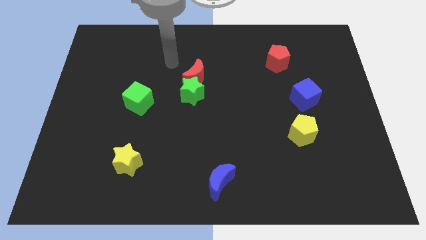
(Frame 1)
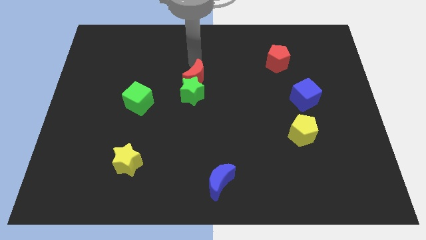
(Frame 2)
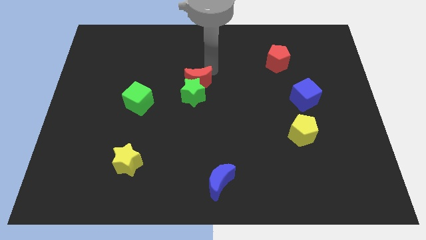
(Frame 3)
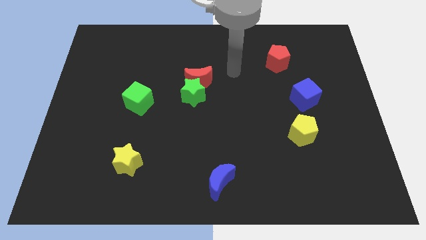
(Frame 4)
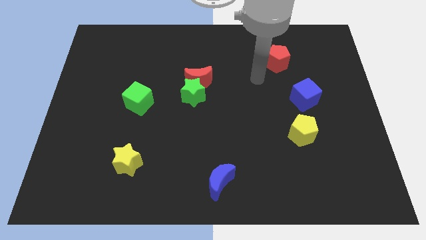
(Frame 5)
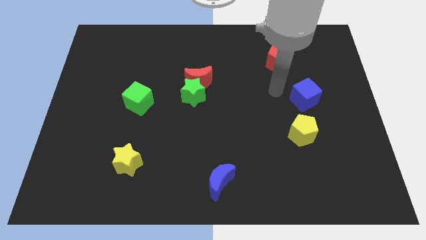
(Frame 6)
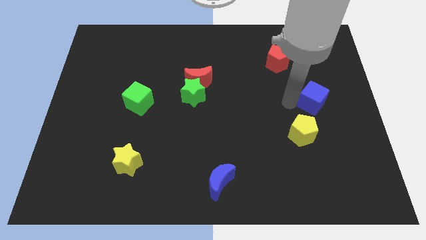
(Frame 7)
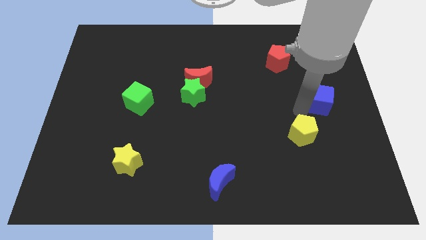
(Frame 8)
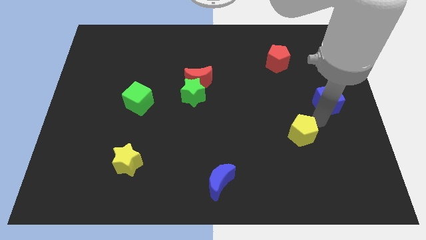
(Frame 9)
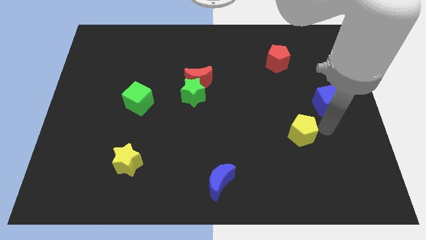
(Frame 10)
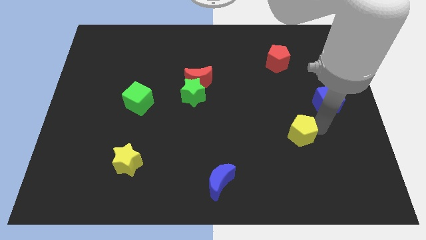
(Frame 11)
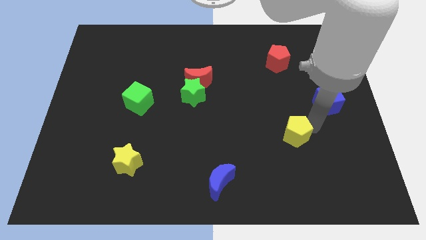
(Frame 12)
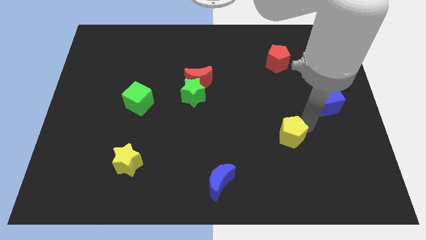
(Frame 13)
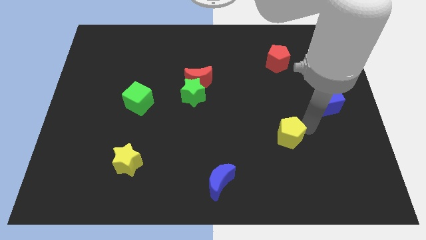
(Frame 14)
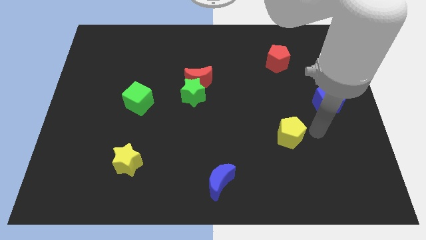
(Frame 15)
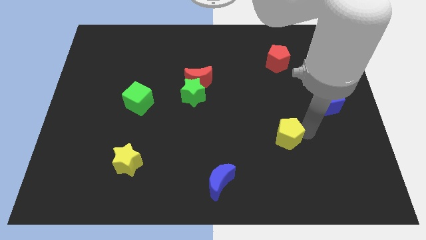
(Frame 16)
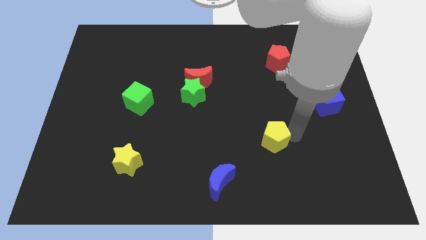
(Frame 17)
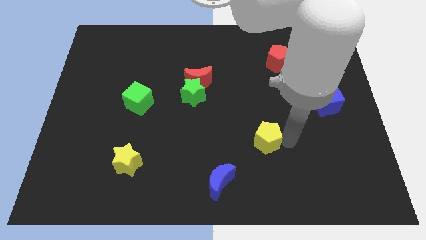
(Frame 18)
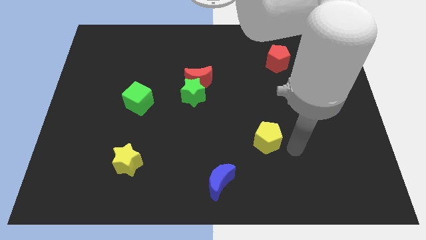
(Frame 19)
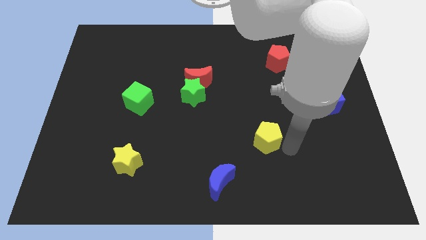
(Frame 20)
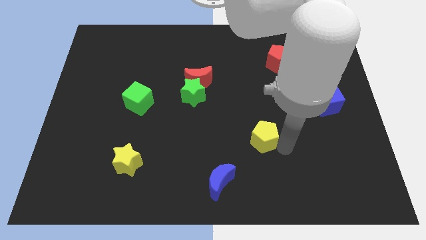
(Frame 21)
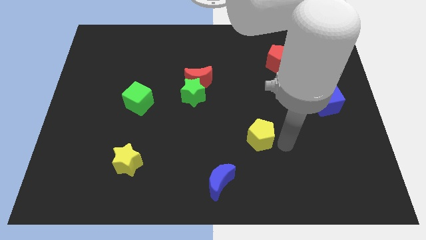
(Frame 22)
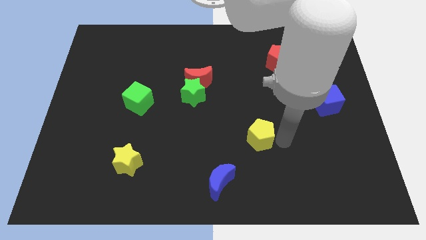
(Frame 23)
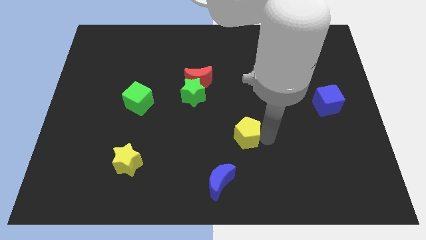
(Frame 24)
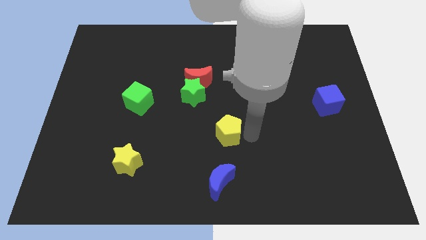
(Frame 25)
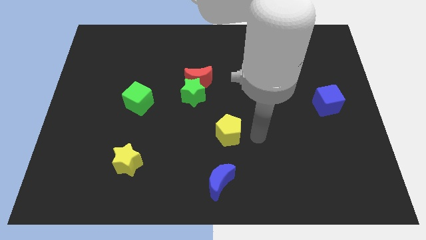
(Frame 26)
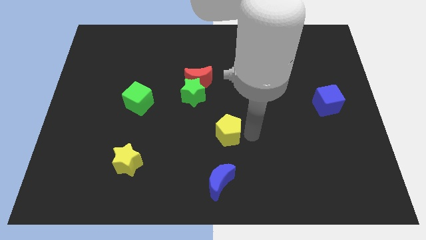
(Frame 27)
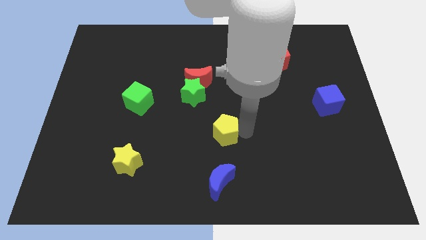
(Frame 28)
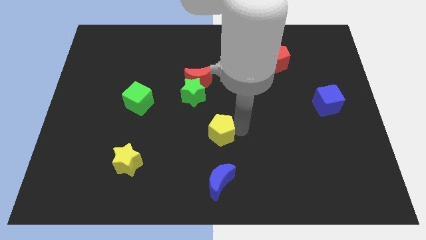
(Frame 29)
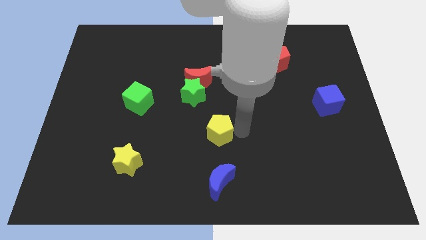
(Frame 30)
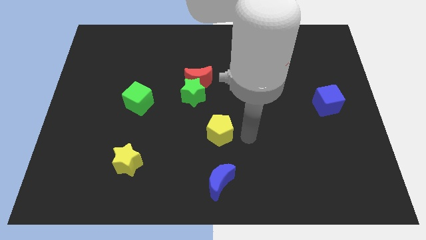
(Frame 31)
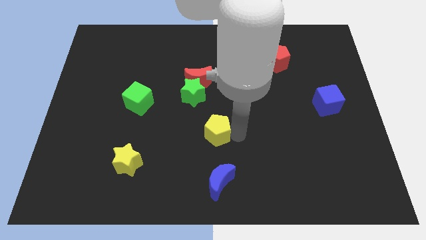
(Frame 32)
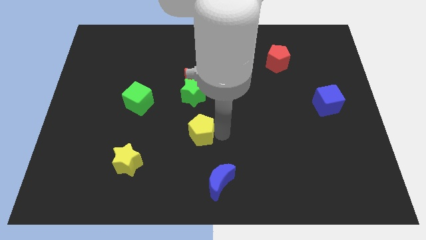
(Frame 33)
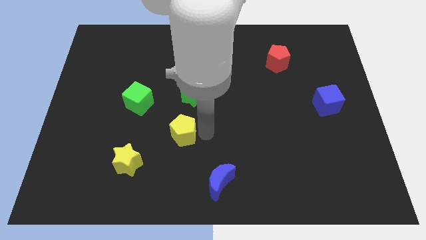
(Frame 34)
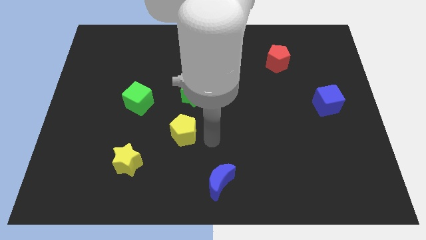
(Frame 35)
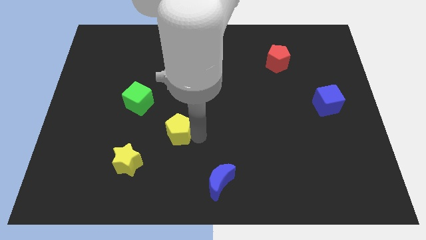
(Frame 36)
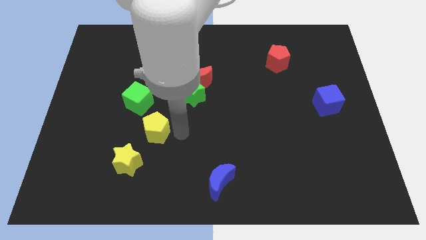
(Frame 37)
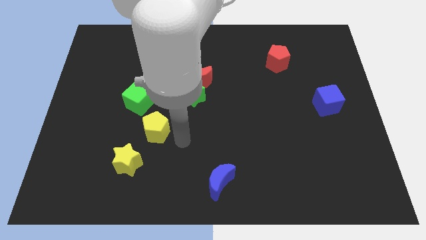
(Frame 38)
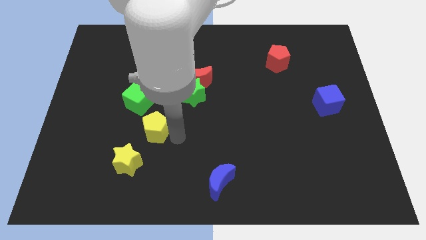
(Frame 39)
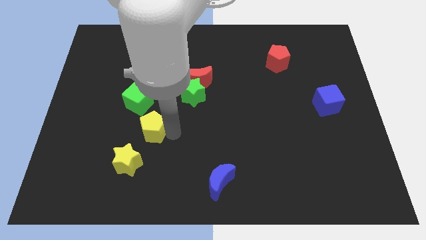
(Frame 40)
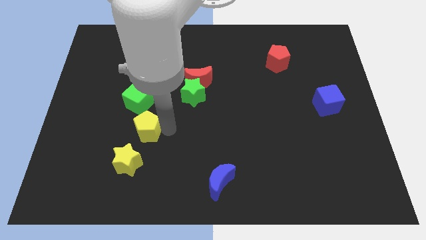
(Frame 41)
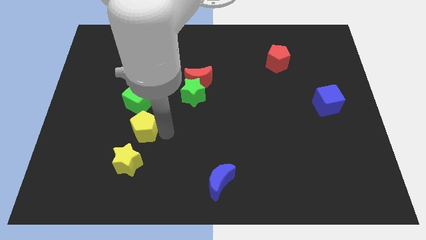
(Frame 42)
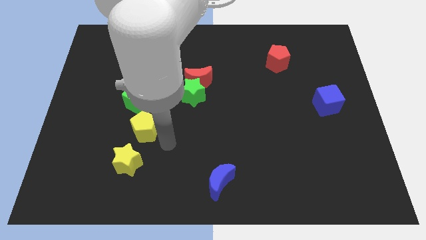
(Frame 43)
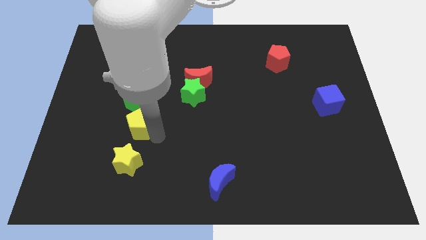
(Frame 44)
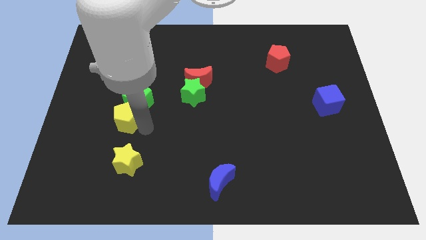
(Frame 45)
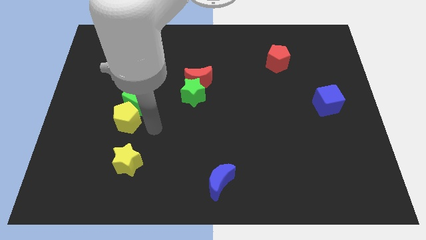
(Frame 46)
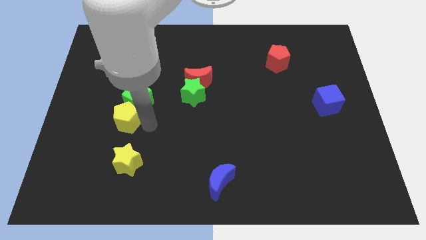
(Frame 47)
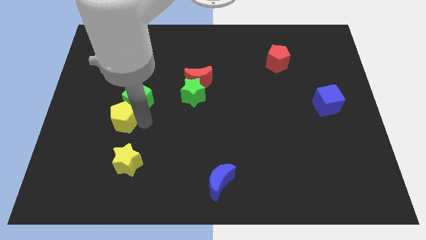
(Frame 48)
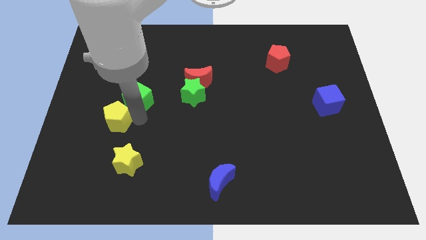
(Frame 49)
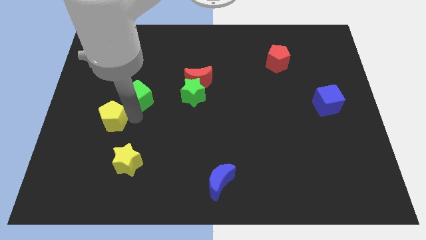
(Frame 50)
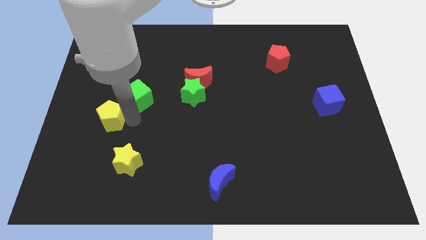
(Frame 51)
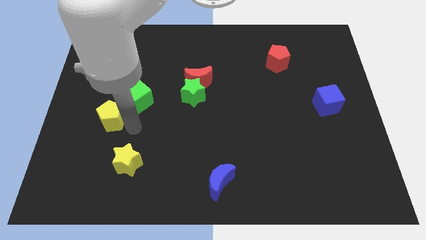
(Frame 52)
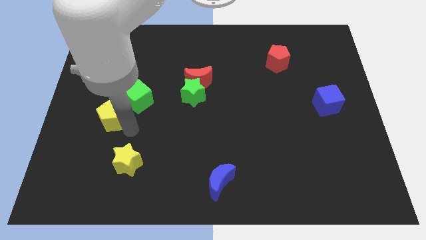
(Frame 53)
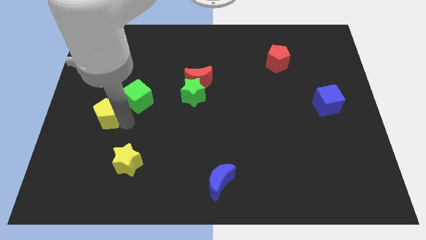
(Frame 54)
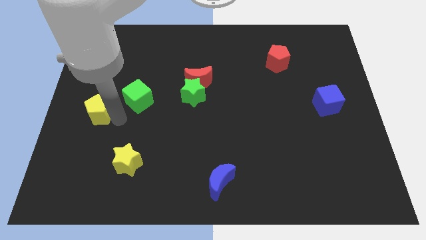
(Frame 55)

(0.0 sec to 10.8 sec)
push the yellow pentagon to the left side of the board

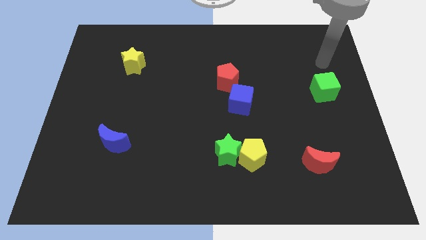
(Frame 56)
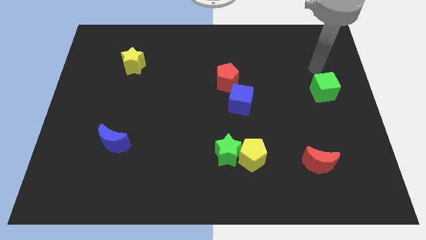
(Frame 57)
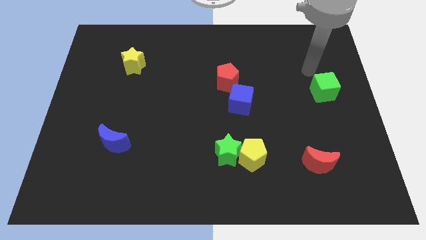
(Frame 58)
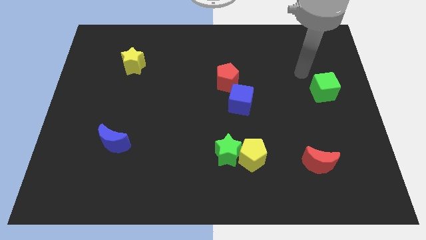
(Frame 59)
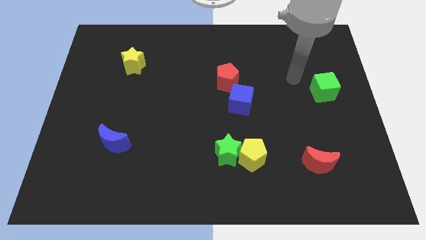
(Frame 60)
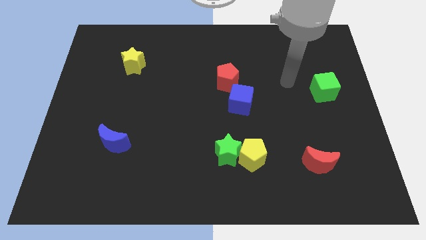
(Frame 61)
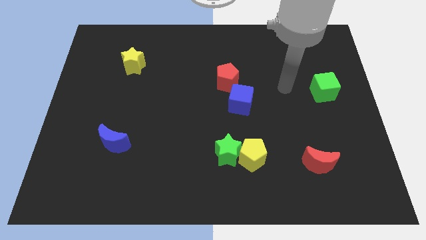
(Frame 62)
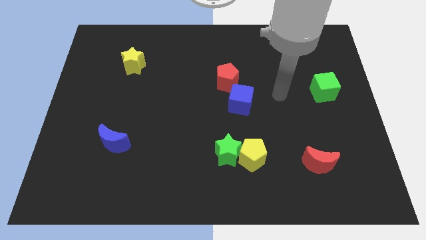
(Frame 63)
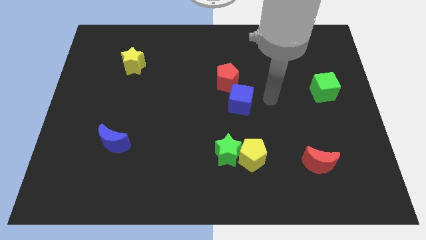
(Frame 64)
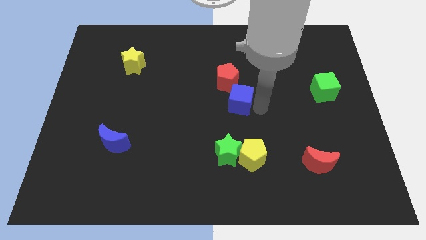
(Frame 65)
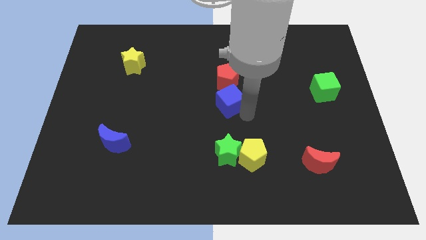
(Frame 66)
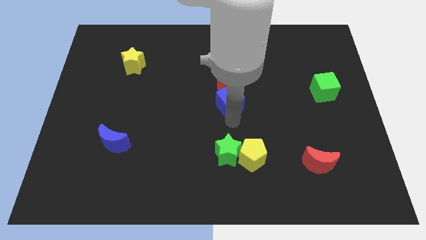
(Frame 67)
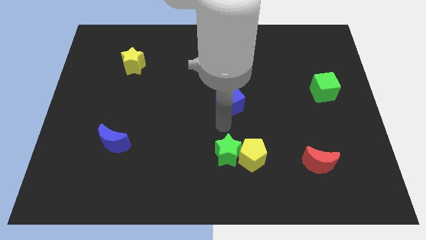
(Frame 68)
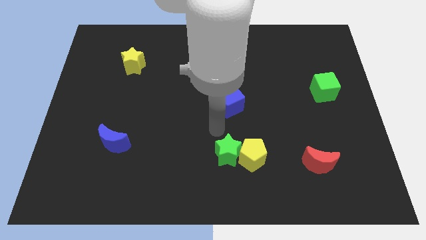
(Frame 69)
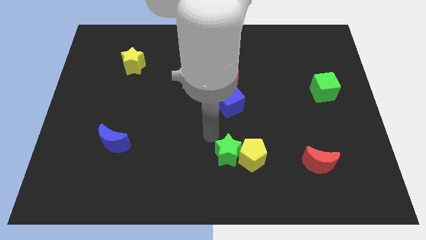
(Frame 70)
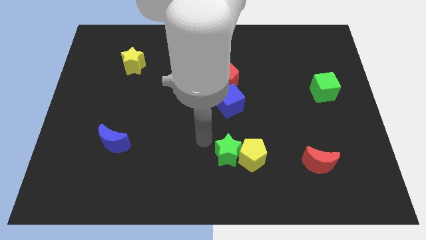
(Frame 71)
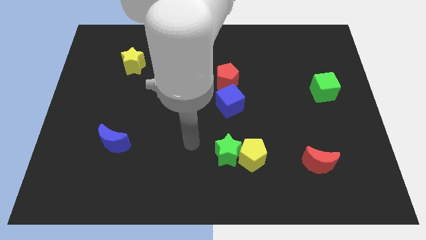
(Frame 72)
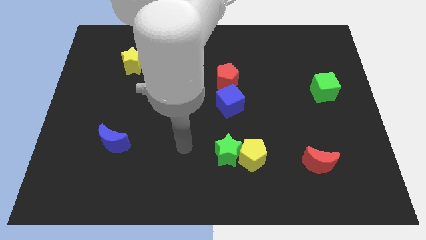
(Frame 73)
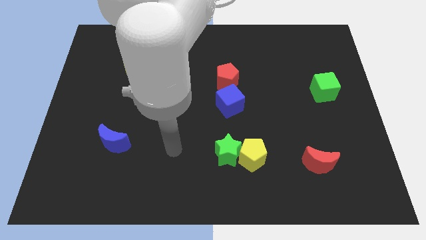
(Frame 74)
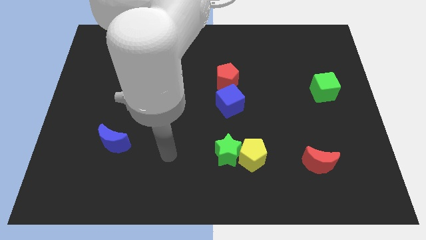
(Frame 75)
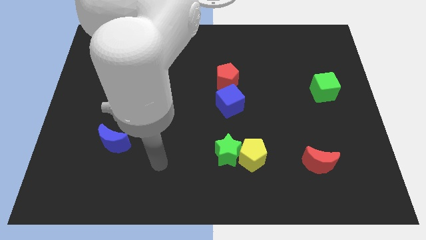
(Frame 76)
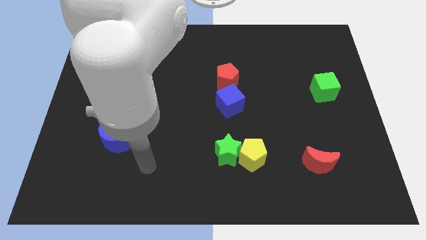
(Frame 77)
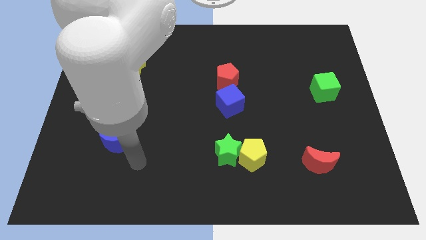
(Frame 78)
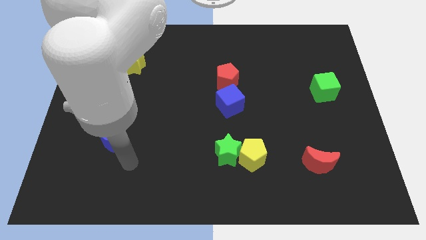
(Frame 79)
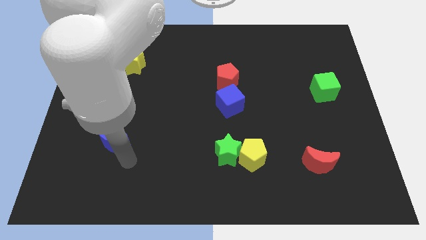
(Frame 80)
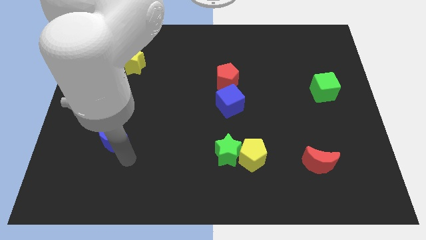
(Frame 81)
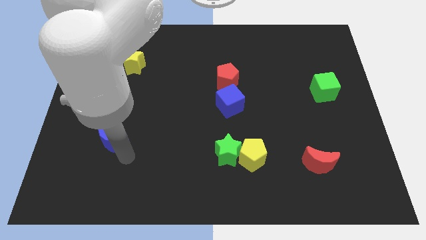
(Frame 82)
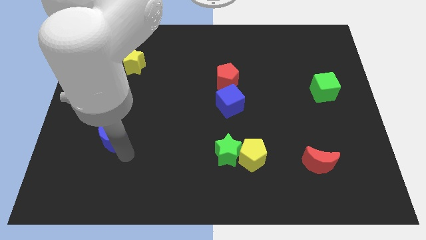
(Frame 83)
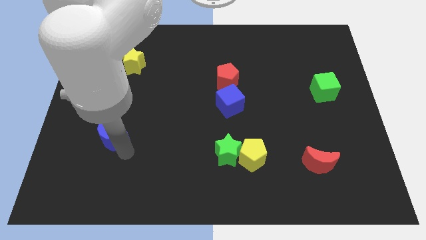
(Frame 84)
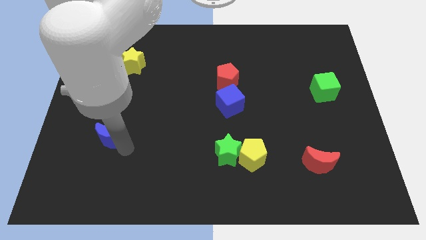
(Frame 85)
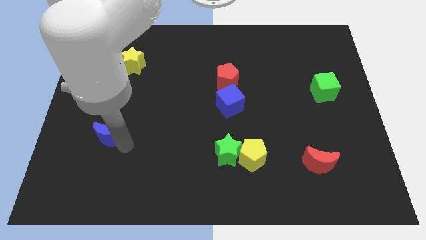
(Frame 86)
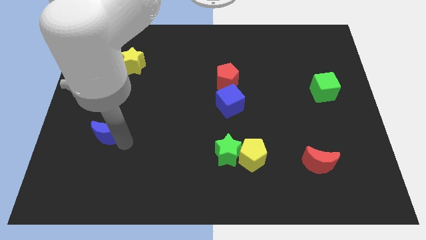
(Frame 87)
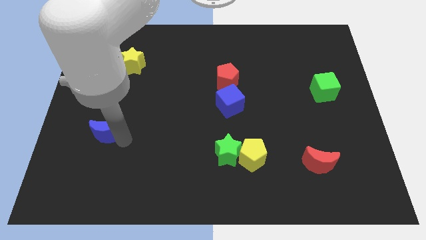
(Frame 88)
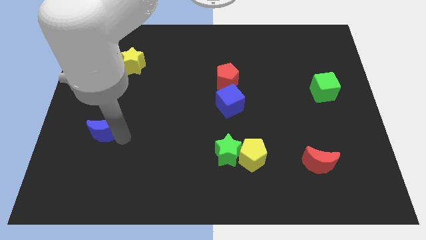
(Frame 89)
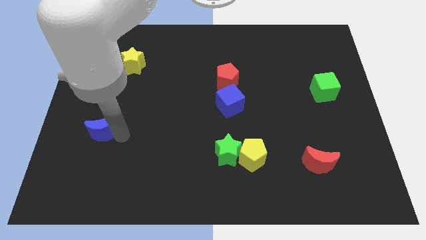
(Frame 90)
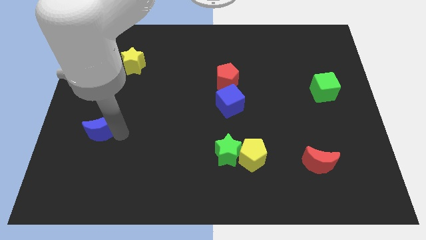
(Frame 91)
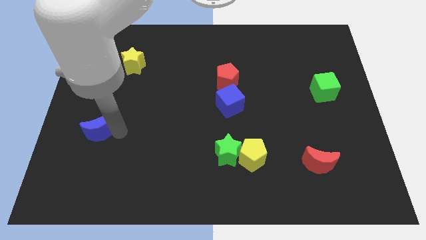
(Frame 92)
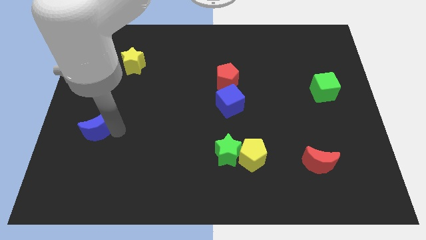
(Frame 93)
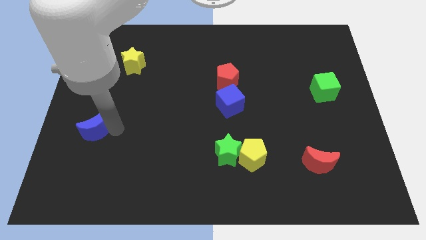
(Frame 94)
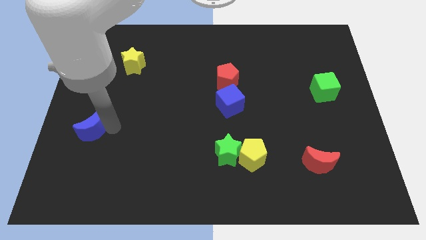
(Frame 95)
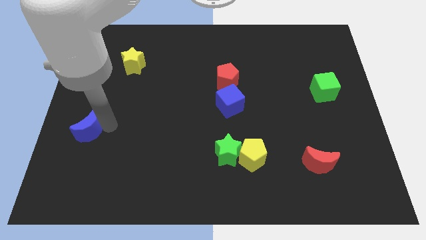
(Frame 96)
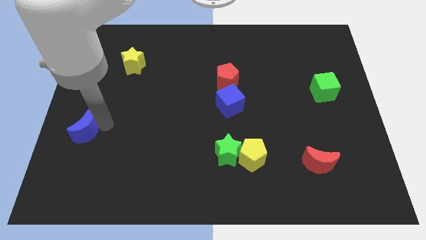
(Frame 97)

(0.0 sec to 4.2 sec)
push the blue moon to the center left
